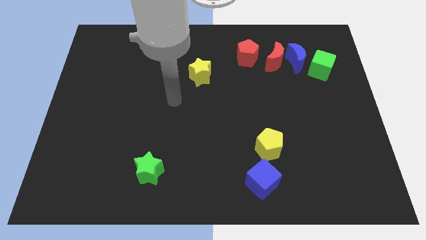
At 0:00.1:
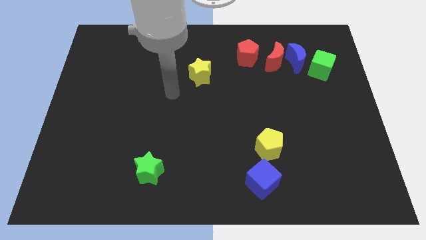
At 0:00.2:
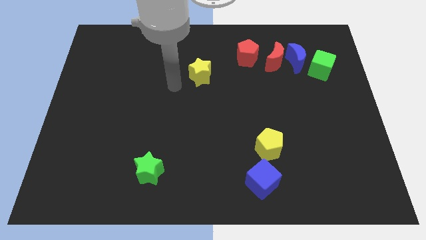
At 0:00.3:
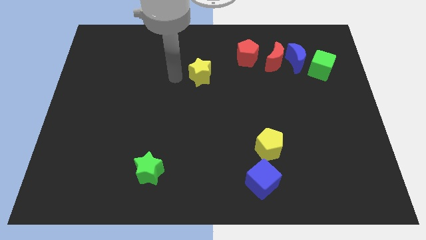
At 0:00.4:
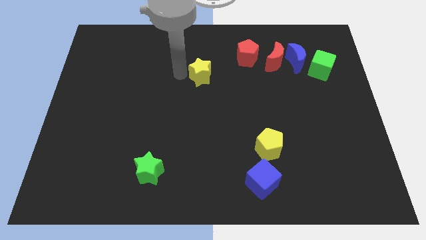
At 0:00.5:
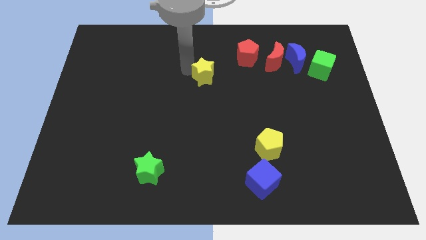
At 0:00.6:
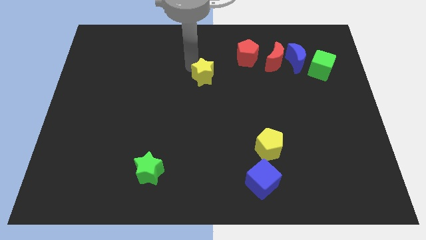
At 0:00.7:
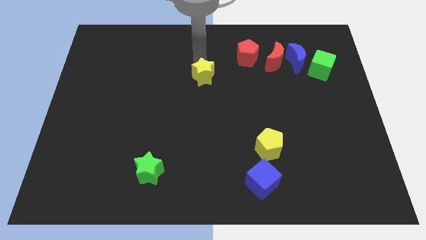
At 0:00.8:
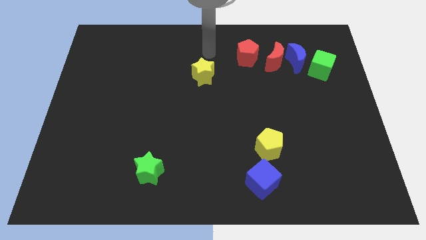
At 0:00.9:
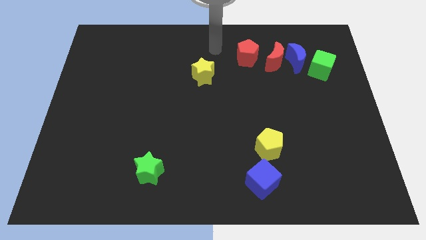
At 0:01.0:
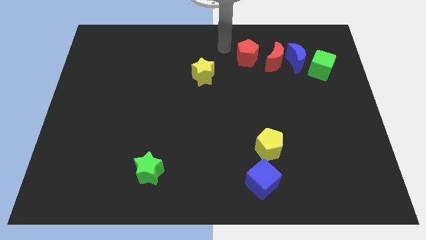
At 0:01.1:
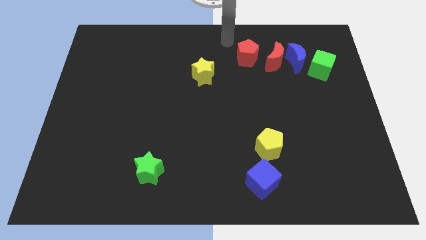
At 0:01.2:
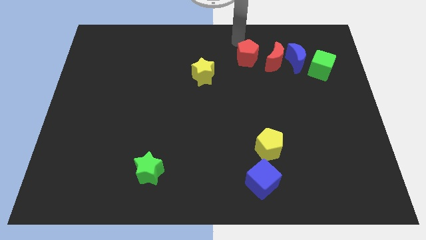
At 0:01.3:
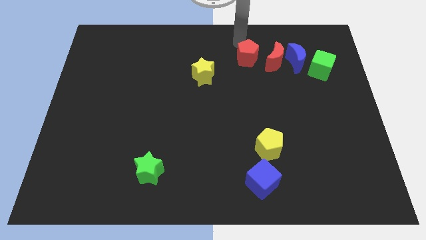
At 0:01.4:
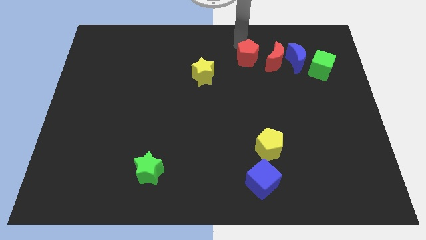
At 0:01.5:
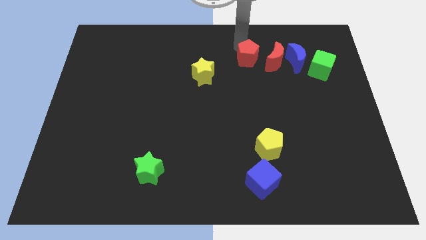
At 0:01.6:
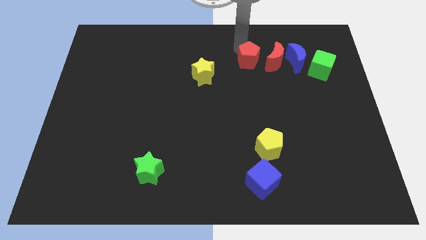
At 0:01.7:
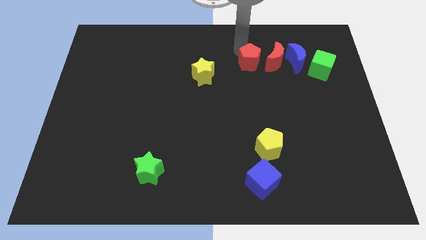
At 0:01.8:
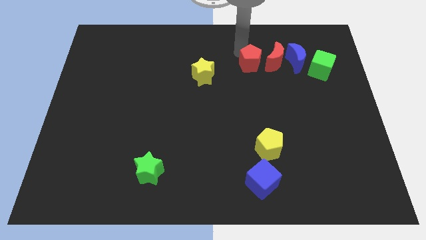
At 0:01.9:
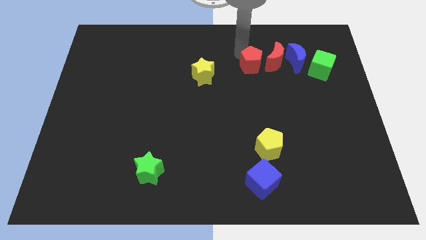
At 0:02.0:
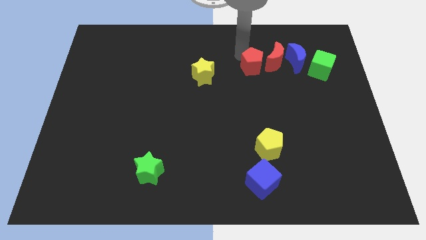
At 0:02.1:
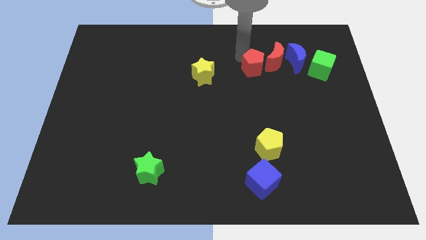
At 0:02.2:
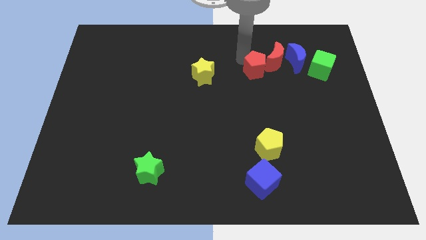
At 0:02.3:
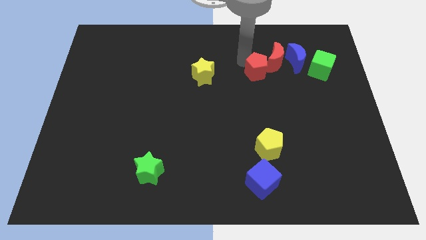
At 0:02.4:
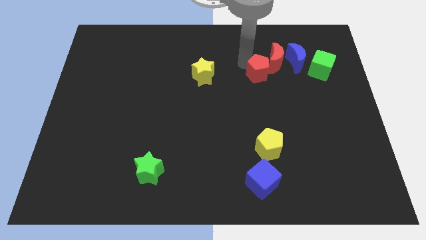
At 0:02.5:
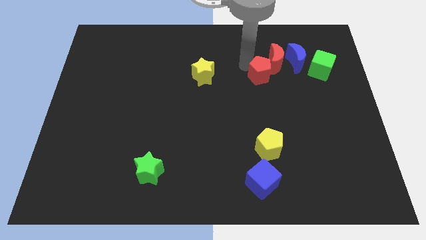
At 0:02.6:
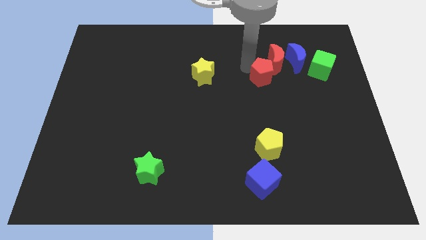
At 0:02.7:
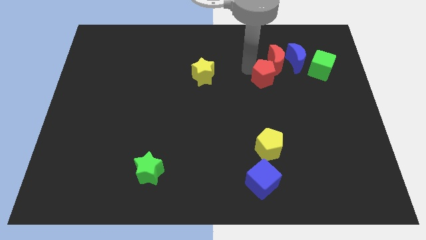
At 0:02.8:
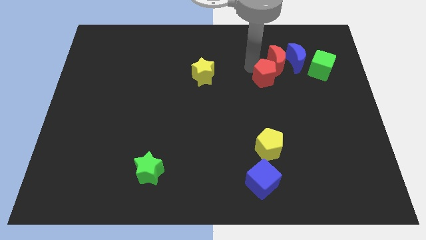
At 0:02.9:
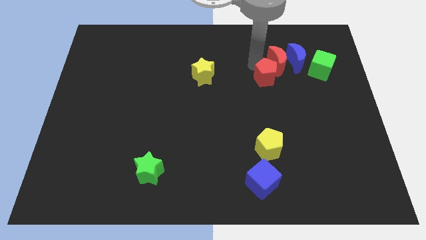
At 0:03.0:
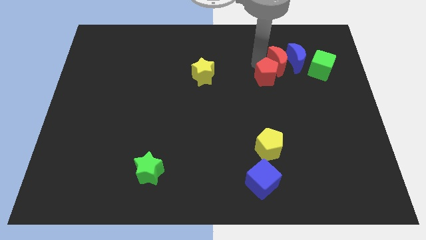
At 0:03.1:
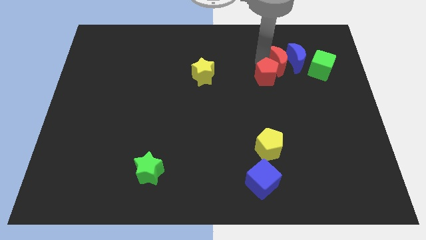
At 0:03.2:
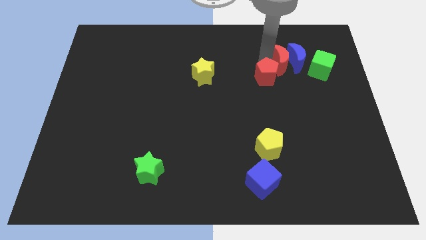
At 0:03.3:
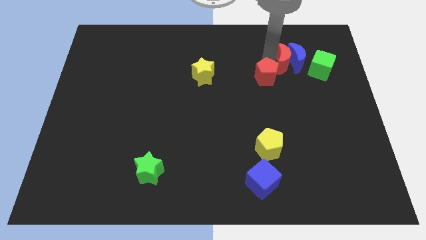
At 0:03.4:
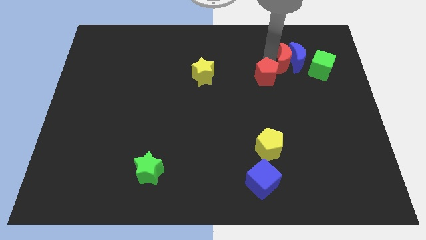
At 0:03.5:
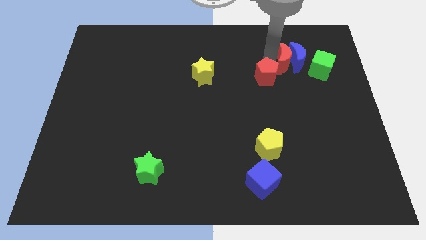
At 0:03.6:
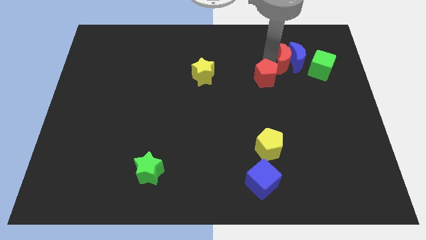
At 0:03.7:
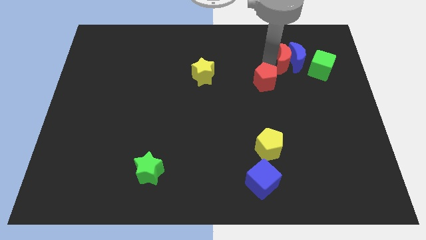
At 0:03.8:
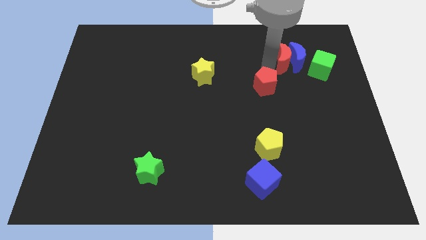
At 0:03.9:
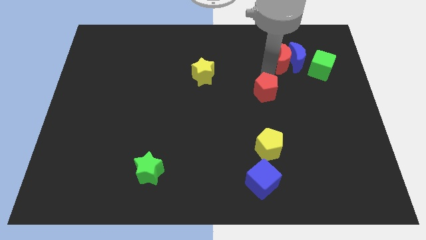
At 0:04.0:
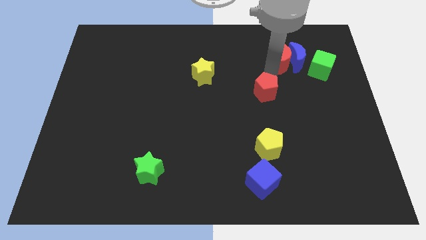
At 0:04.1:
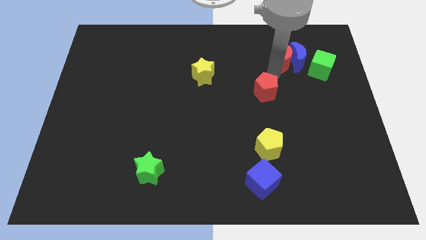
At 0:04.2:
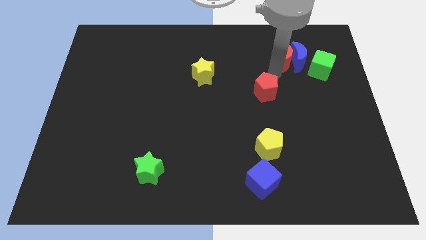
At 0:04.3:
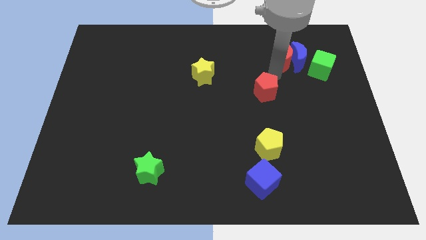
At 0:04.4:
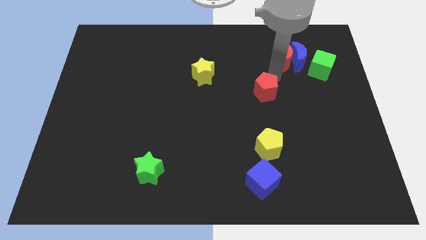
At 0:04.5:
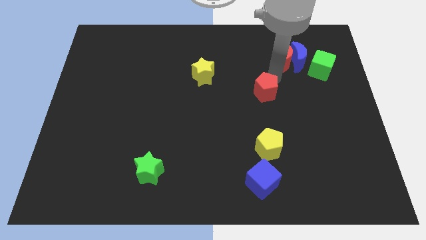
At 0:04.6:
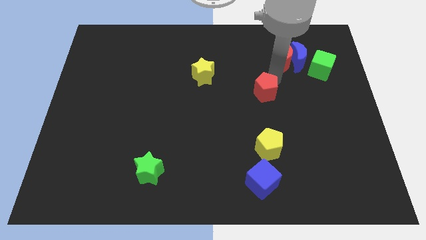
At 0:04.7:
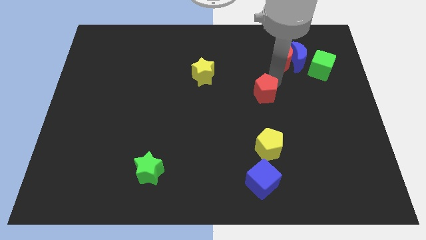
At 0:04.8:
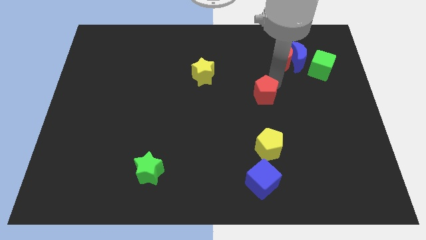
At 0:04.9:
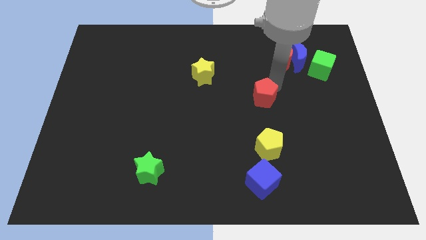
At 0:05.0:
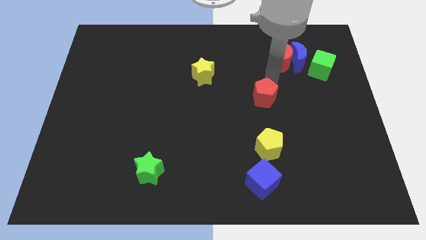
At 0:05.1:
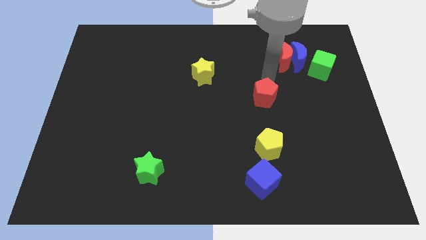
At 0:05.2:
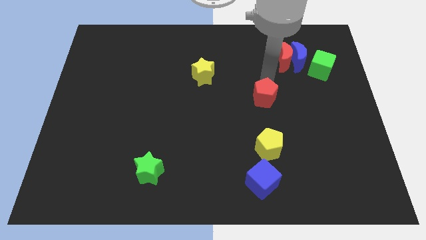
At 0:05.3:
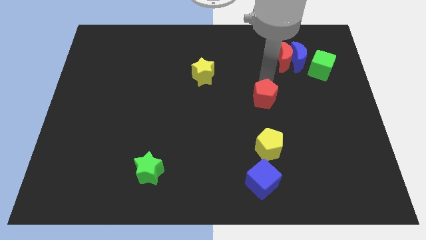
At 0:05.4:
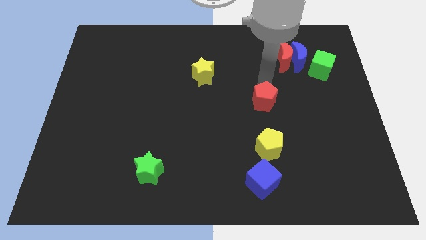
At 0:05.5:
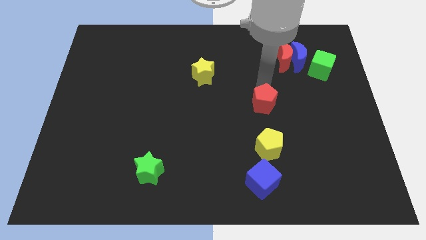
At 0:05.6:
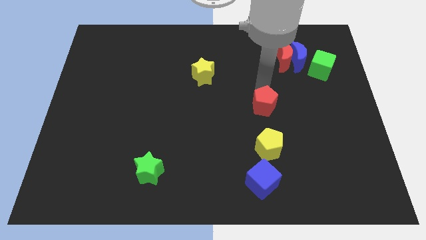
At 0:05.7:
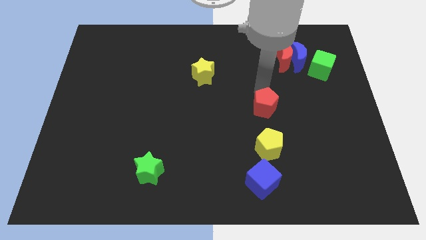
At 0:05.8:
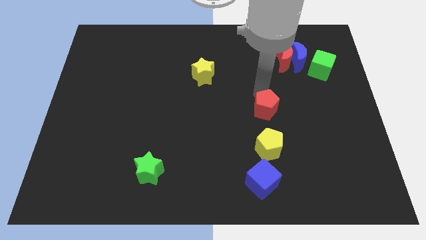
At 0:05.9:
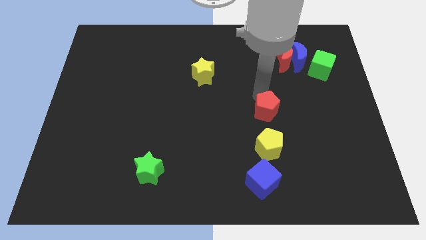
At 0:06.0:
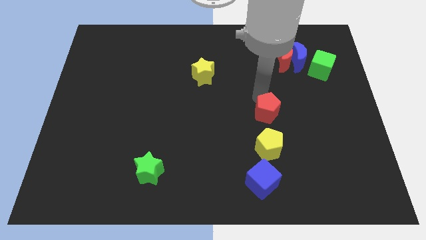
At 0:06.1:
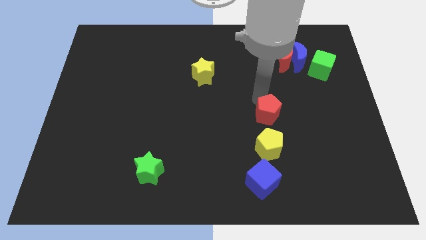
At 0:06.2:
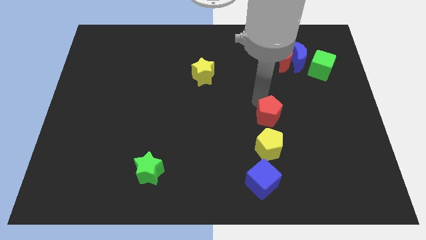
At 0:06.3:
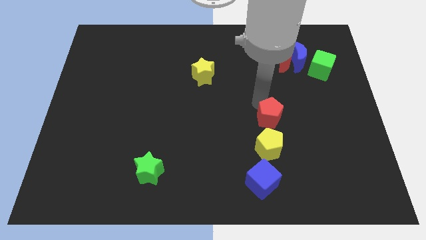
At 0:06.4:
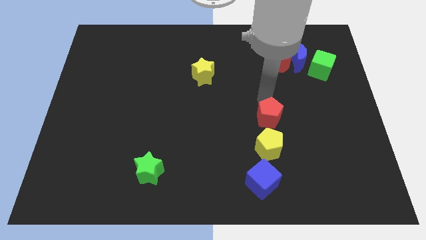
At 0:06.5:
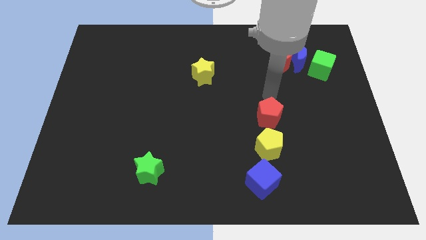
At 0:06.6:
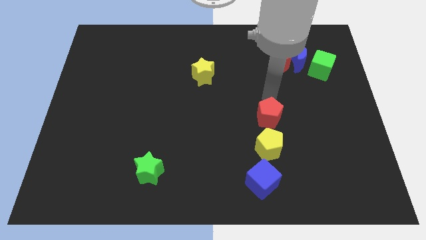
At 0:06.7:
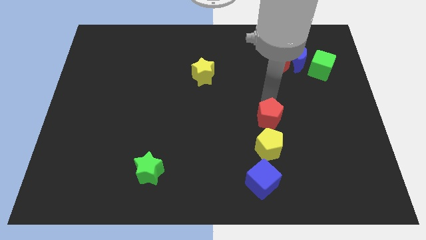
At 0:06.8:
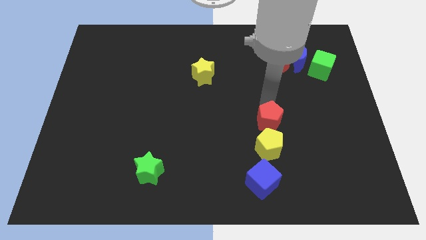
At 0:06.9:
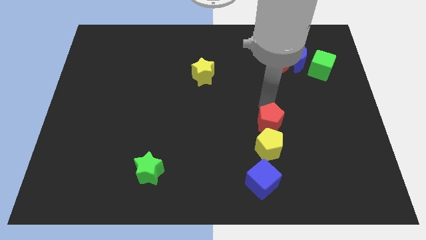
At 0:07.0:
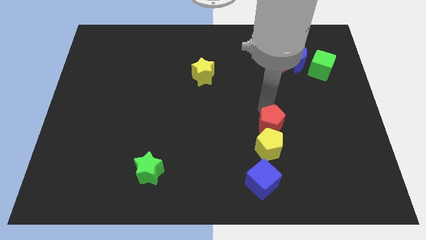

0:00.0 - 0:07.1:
move the red pentagon towards the yellow pentagon
